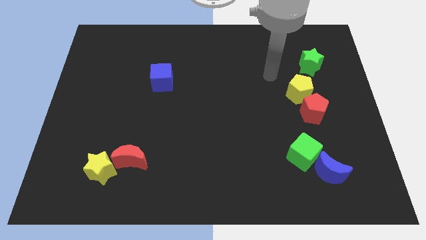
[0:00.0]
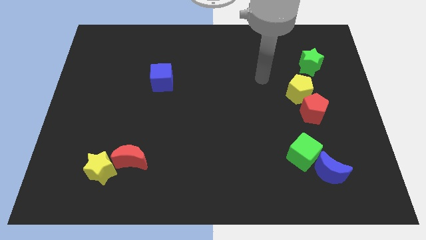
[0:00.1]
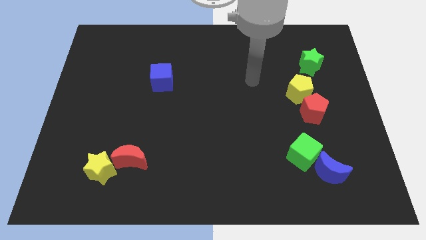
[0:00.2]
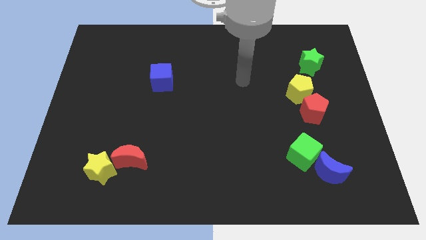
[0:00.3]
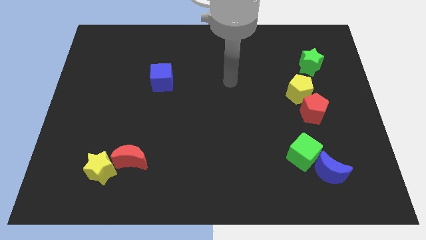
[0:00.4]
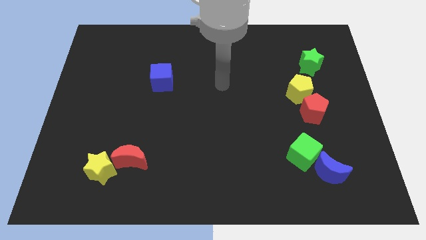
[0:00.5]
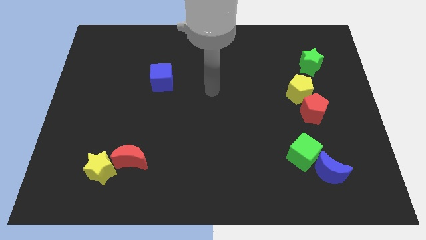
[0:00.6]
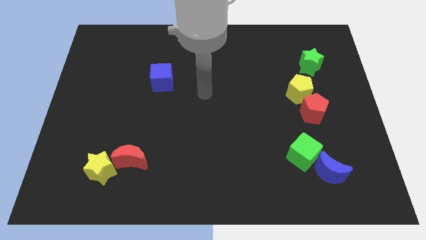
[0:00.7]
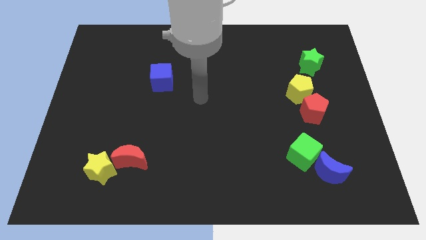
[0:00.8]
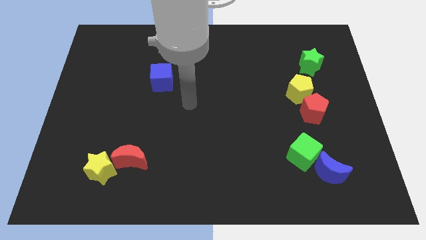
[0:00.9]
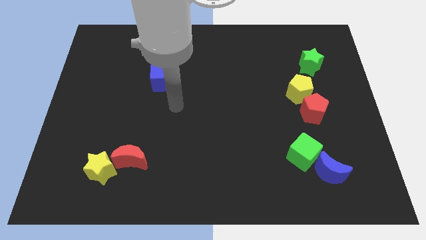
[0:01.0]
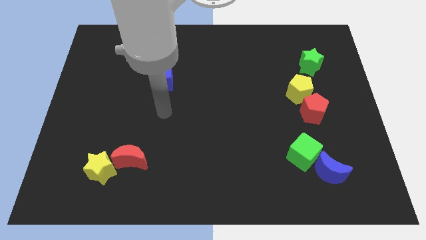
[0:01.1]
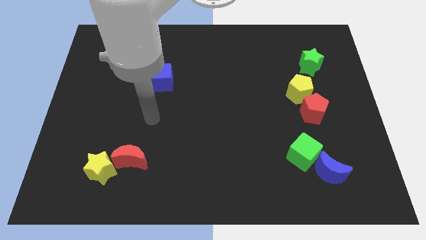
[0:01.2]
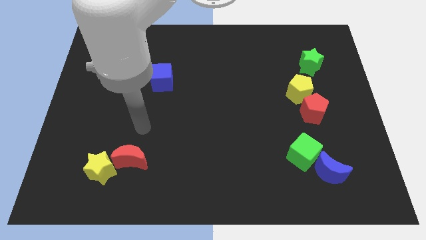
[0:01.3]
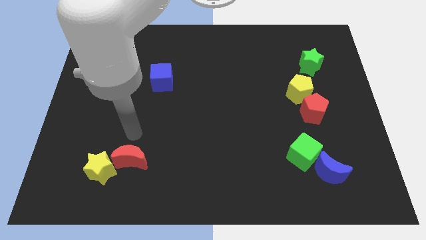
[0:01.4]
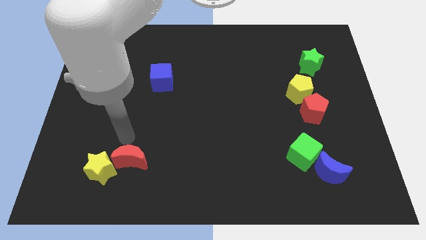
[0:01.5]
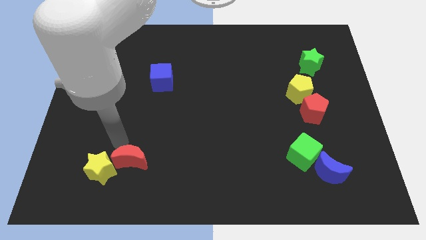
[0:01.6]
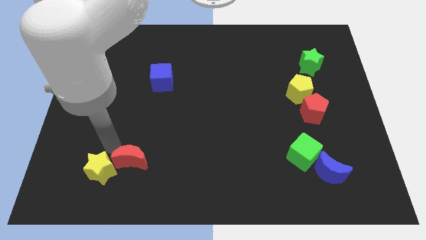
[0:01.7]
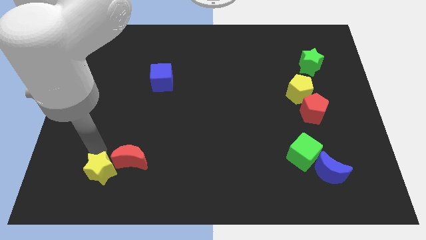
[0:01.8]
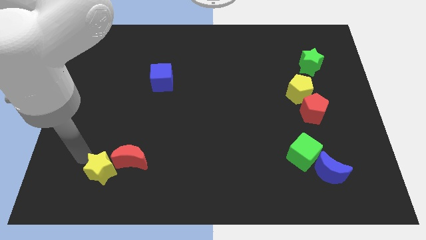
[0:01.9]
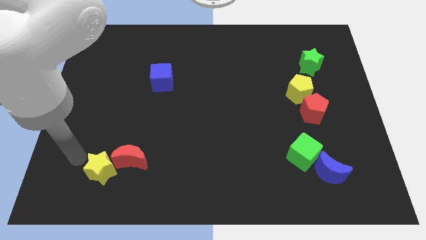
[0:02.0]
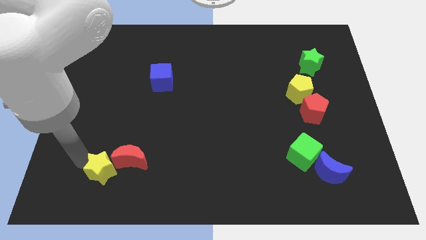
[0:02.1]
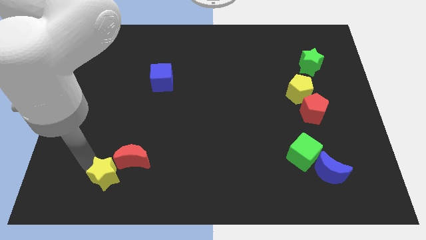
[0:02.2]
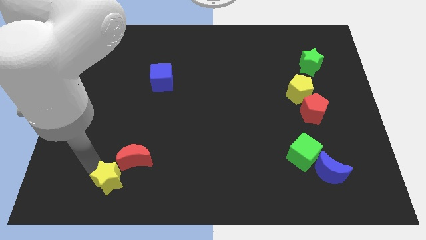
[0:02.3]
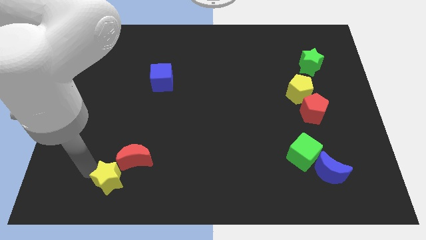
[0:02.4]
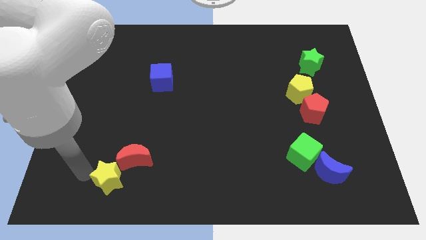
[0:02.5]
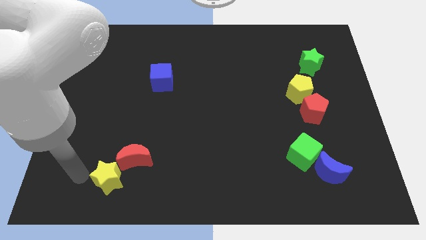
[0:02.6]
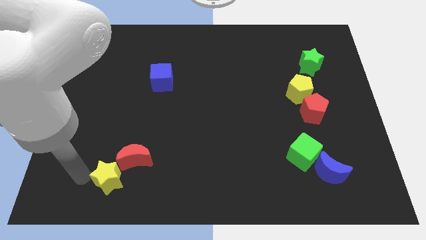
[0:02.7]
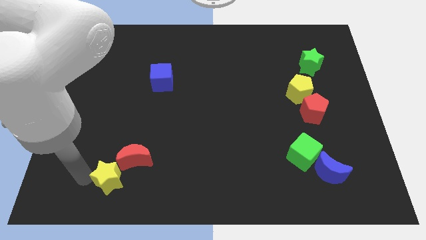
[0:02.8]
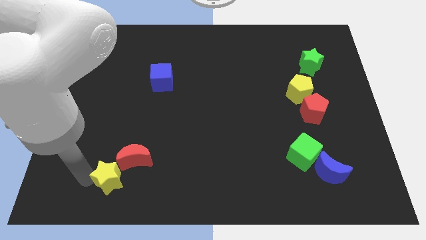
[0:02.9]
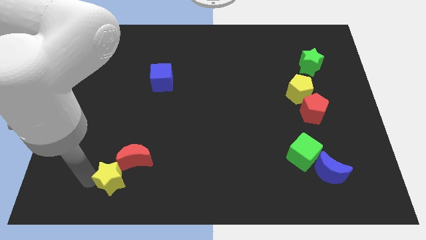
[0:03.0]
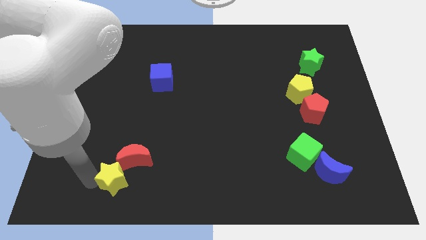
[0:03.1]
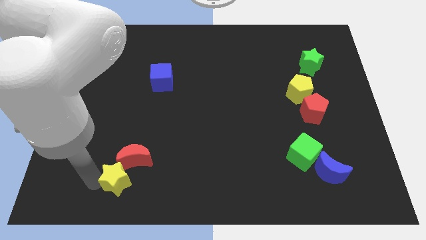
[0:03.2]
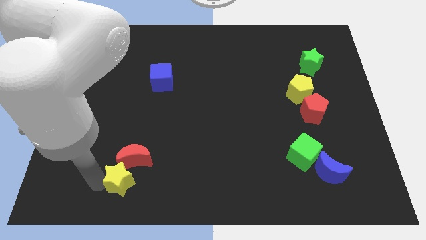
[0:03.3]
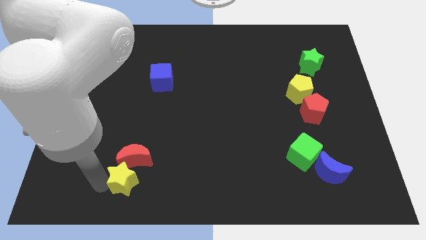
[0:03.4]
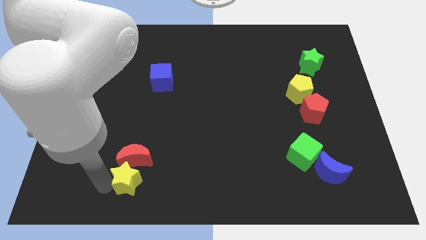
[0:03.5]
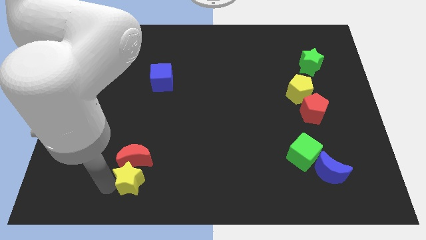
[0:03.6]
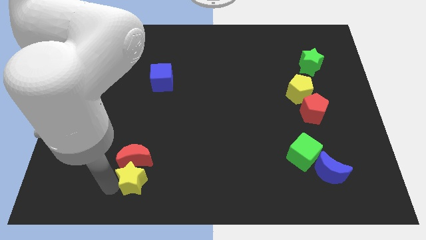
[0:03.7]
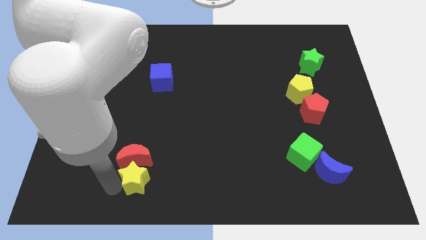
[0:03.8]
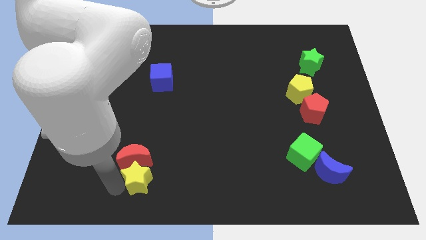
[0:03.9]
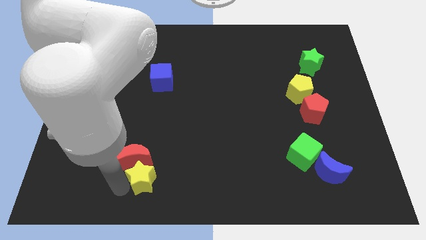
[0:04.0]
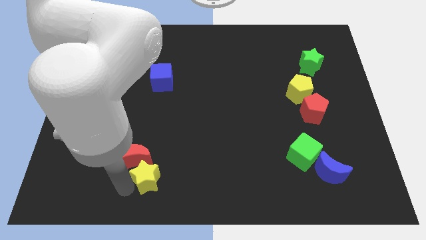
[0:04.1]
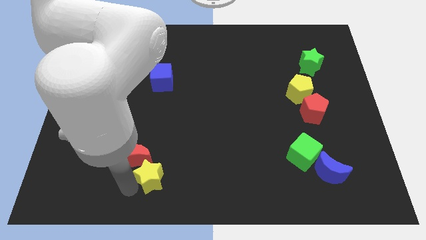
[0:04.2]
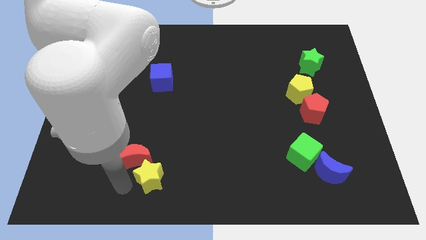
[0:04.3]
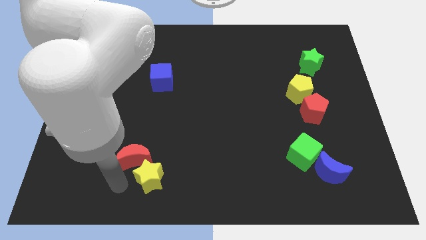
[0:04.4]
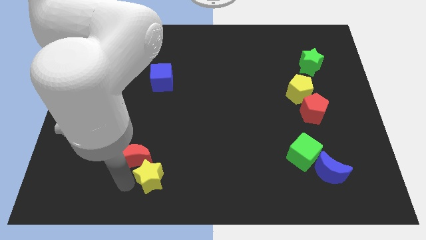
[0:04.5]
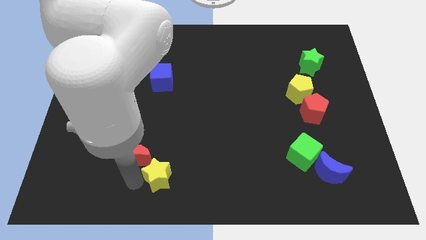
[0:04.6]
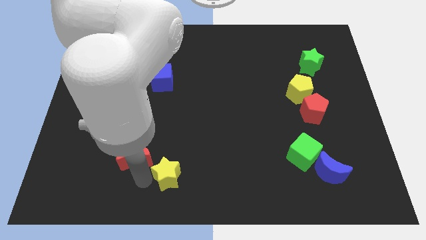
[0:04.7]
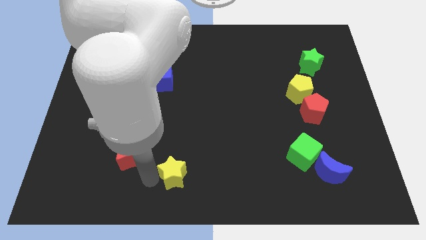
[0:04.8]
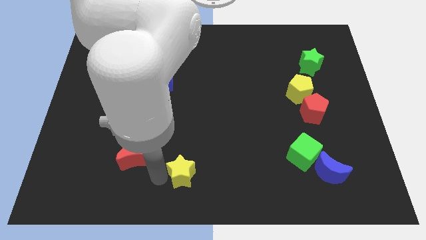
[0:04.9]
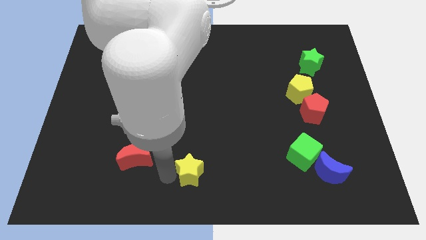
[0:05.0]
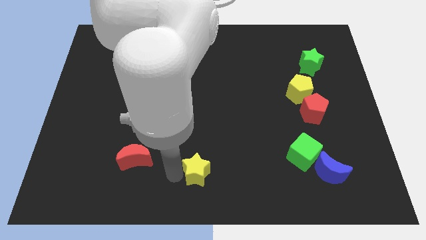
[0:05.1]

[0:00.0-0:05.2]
move the yellow star to the right

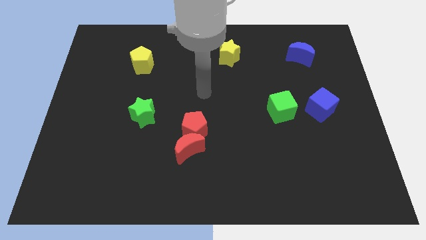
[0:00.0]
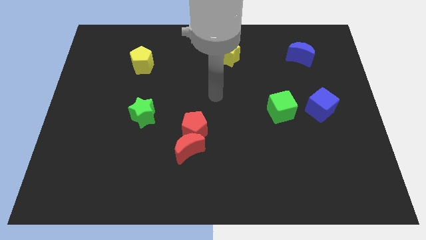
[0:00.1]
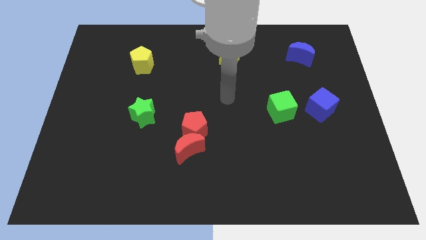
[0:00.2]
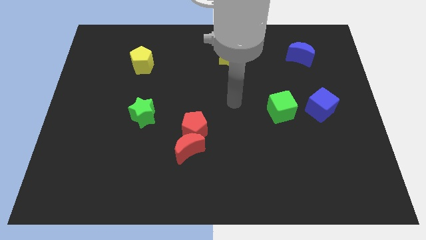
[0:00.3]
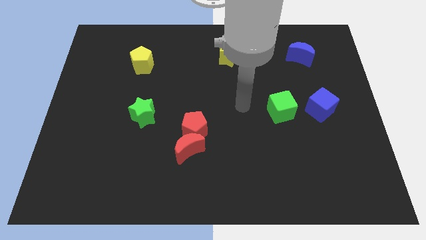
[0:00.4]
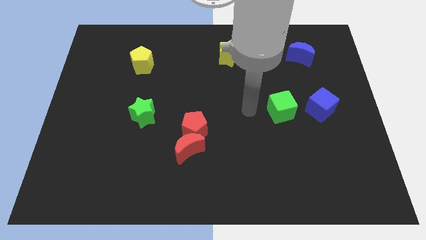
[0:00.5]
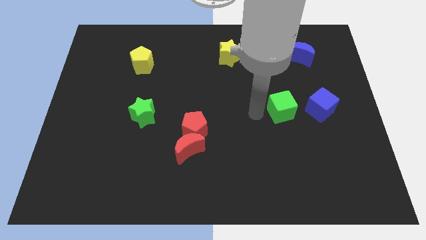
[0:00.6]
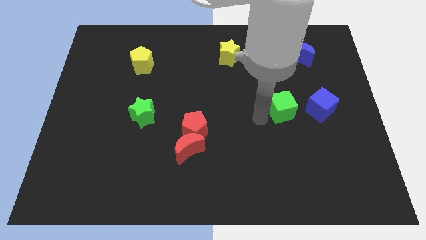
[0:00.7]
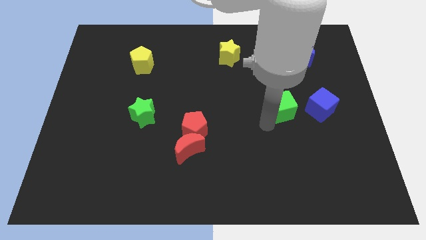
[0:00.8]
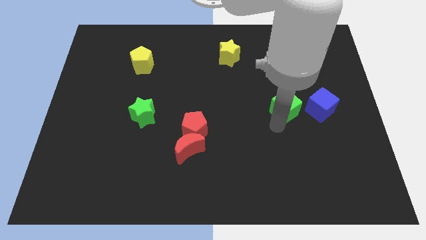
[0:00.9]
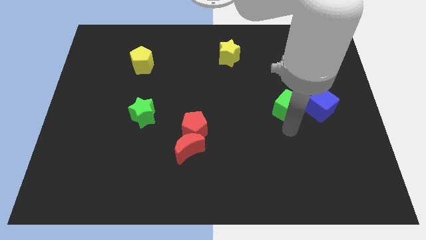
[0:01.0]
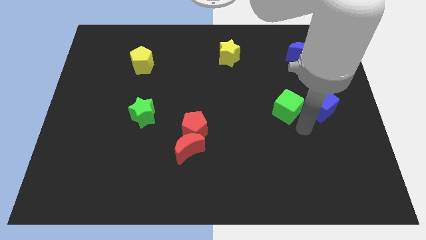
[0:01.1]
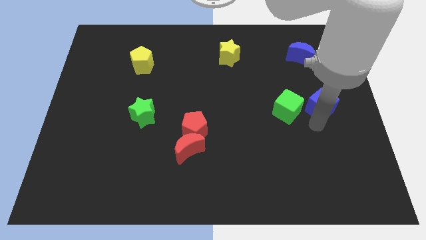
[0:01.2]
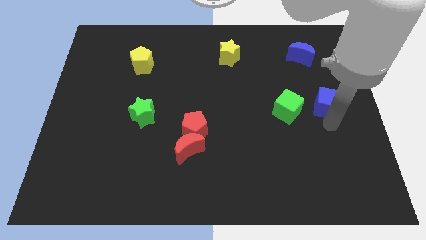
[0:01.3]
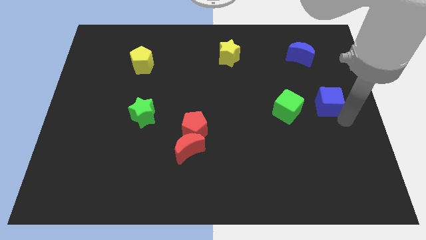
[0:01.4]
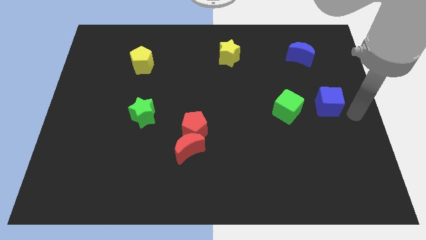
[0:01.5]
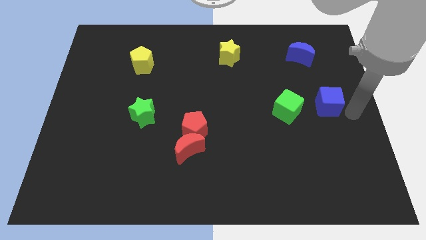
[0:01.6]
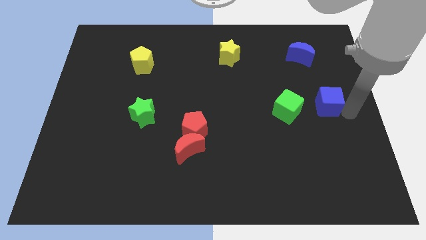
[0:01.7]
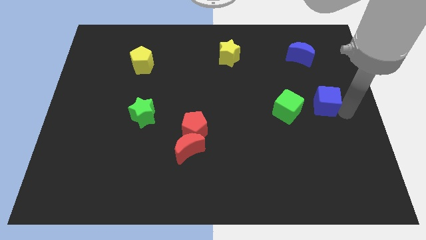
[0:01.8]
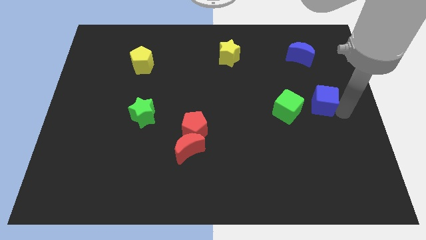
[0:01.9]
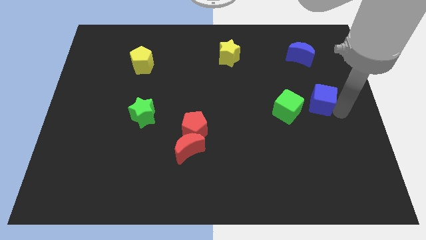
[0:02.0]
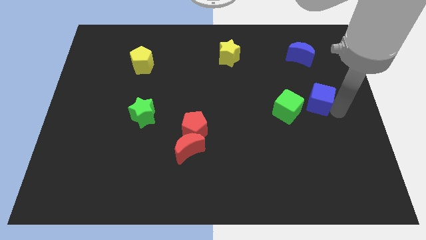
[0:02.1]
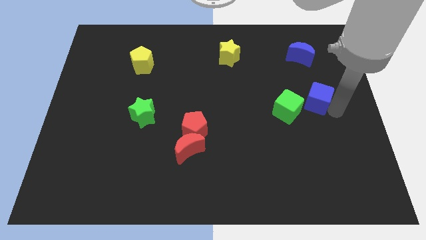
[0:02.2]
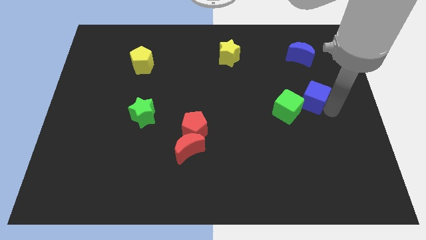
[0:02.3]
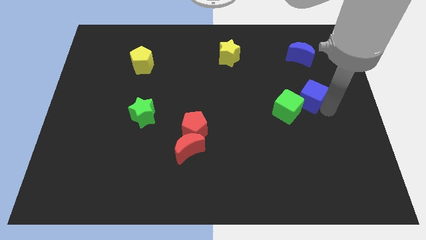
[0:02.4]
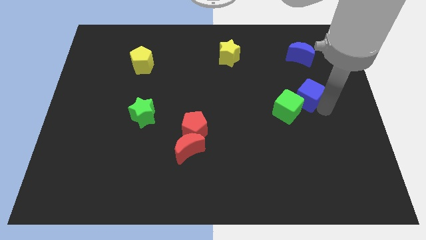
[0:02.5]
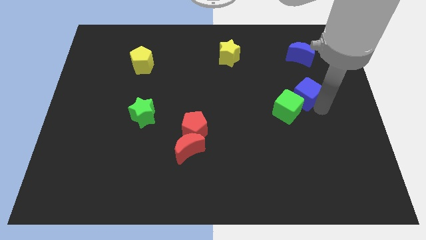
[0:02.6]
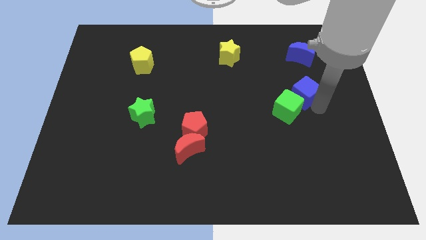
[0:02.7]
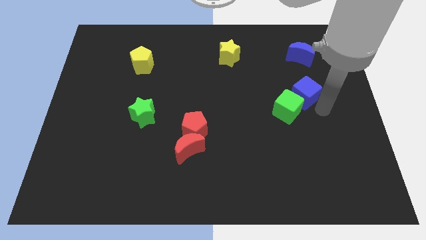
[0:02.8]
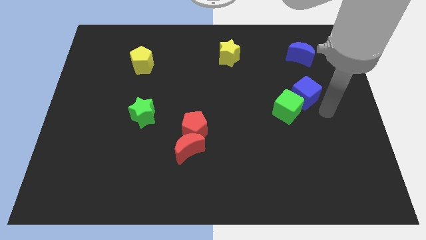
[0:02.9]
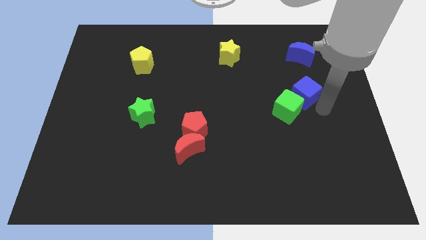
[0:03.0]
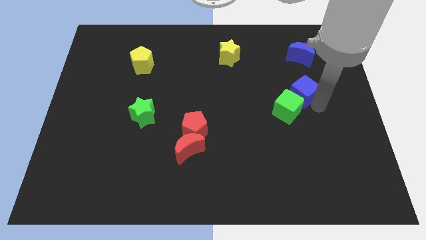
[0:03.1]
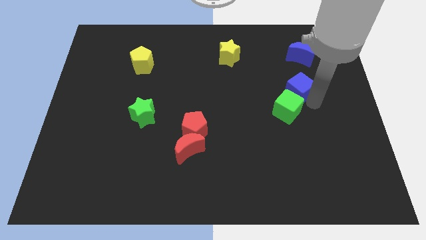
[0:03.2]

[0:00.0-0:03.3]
push the blue cube a little bit upwards and left diagonally
